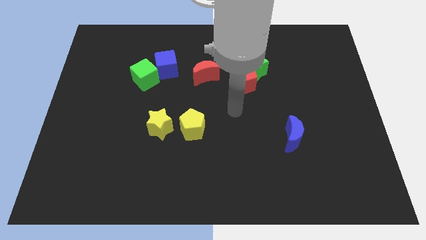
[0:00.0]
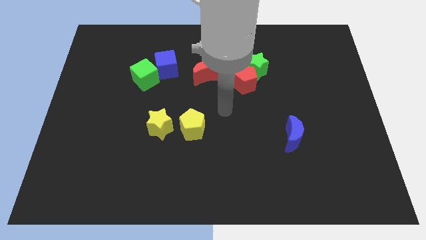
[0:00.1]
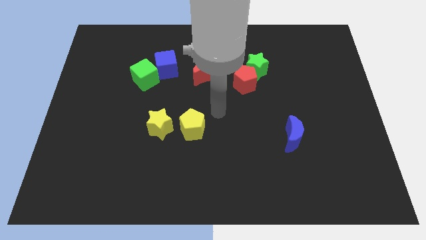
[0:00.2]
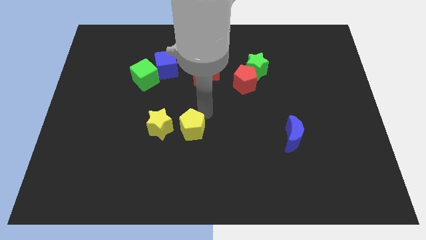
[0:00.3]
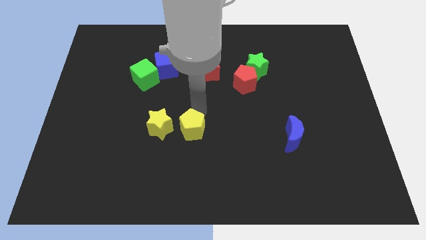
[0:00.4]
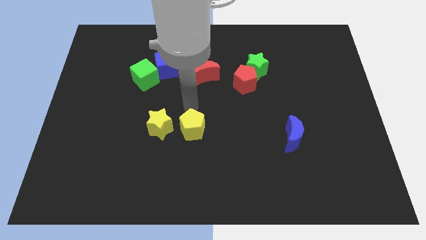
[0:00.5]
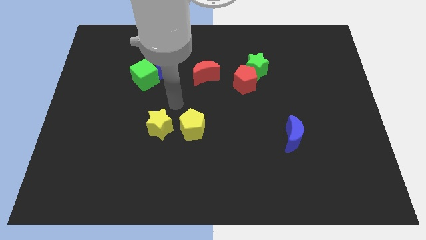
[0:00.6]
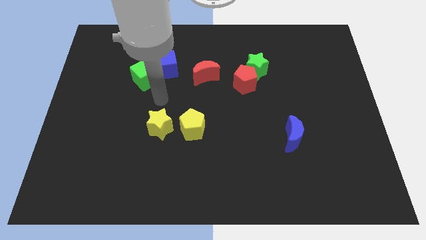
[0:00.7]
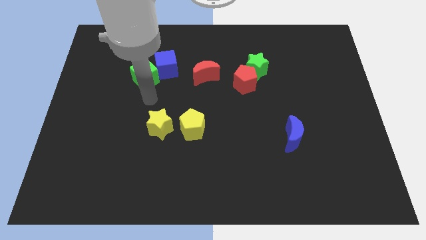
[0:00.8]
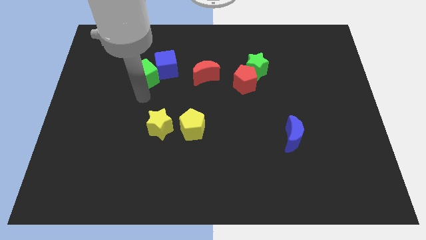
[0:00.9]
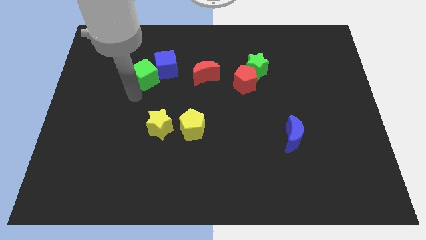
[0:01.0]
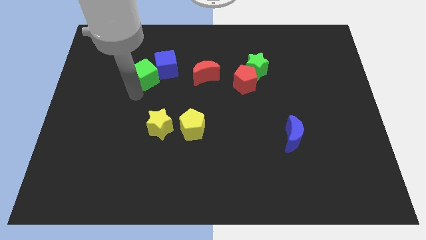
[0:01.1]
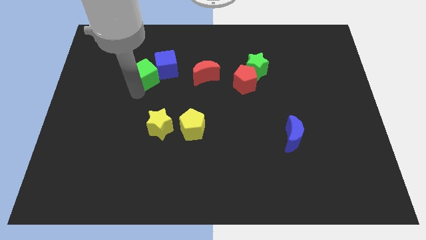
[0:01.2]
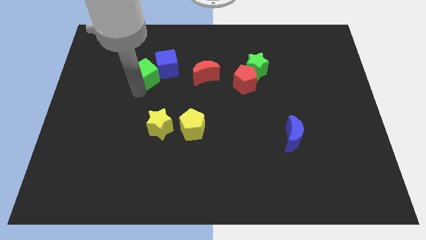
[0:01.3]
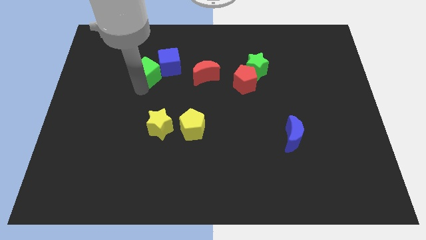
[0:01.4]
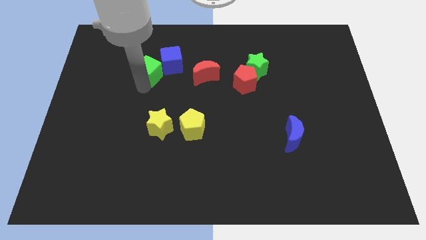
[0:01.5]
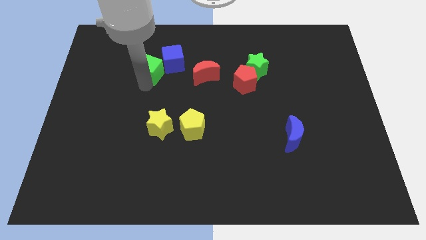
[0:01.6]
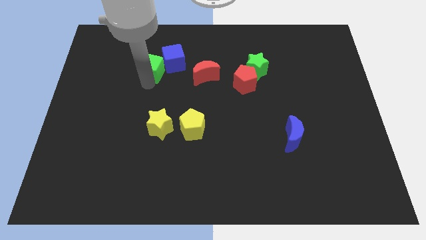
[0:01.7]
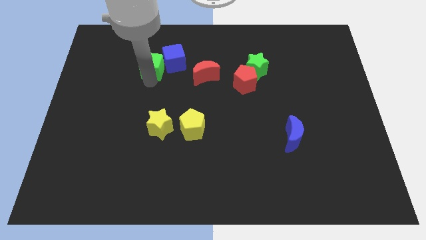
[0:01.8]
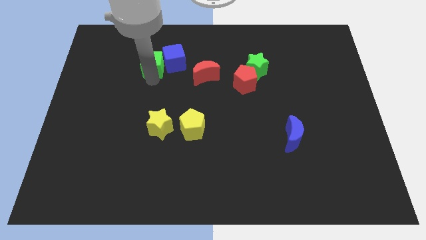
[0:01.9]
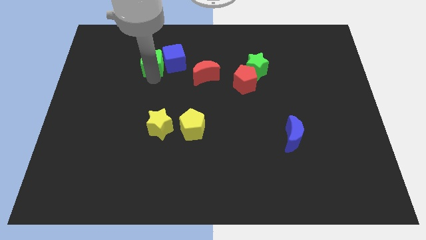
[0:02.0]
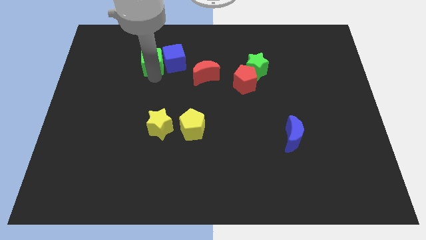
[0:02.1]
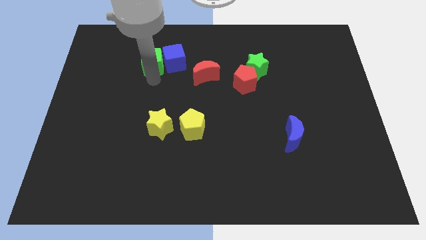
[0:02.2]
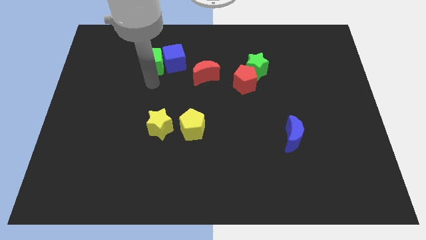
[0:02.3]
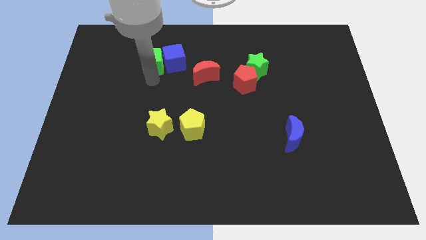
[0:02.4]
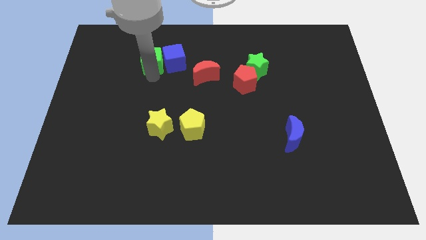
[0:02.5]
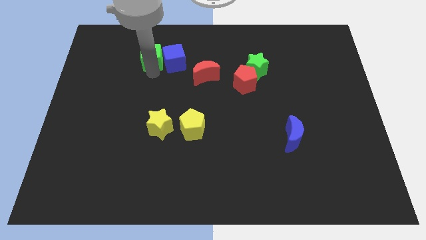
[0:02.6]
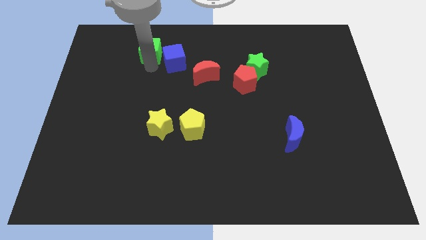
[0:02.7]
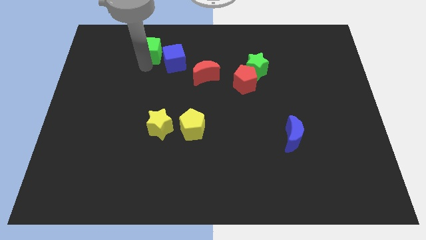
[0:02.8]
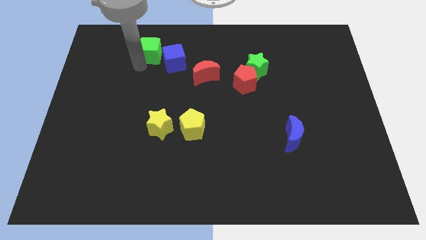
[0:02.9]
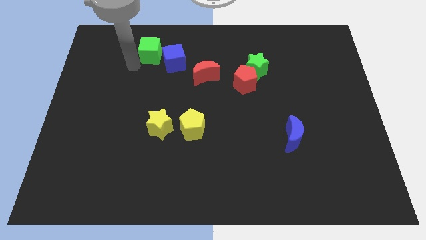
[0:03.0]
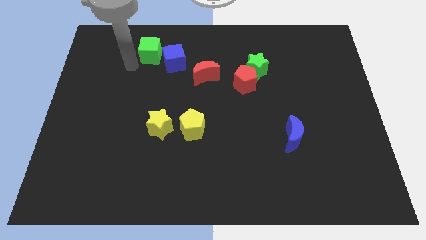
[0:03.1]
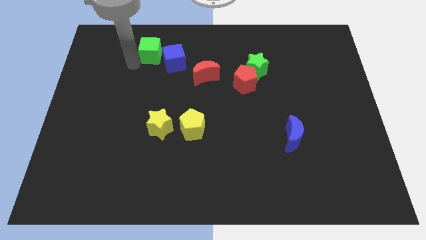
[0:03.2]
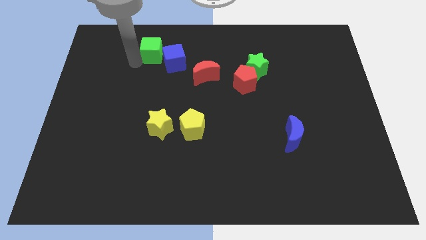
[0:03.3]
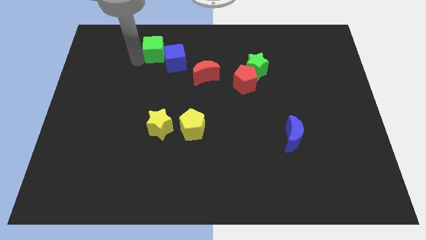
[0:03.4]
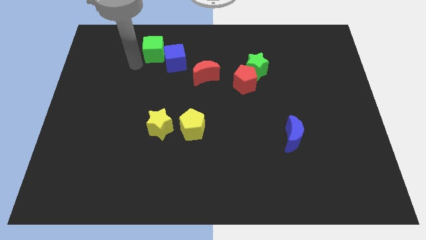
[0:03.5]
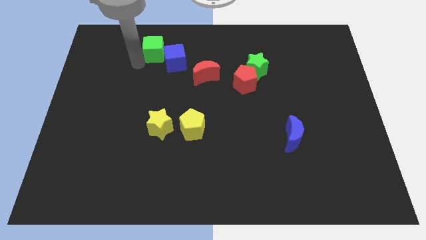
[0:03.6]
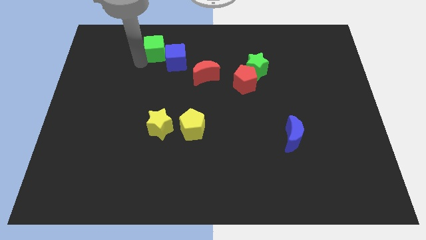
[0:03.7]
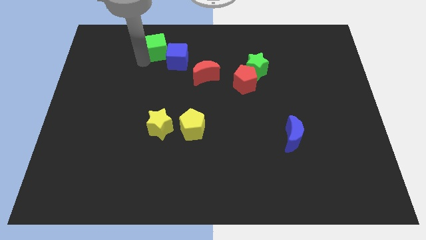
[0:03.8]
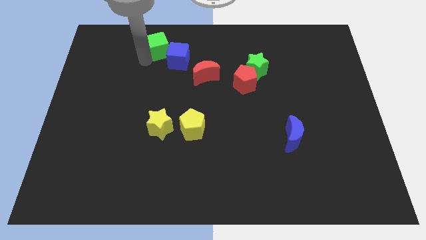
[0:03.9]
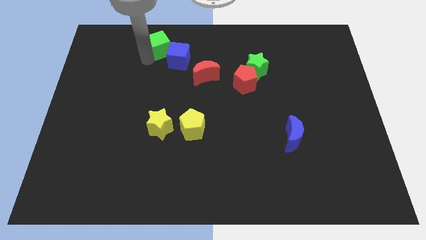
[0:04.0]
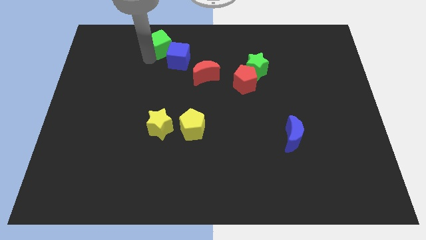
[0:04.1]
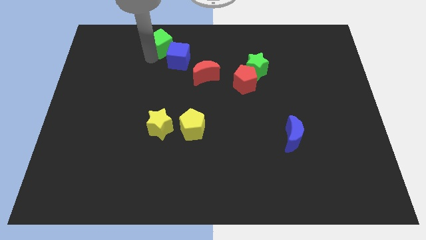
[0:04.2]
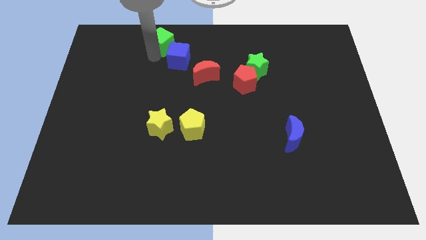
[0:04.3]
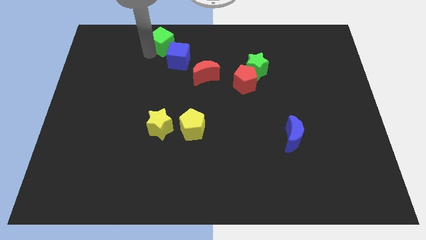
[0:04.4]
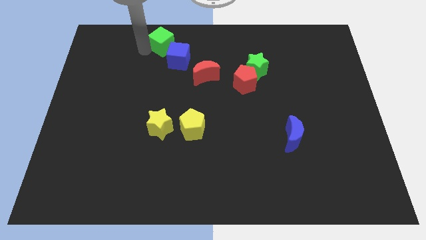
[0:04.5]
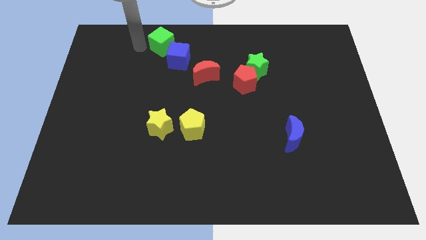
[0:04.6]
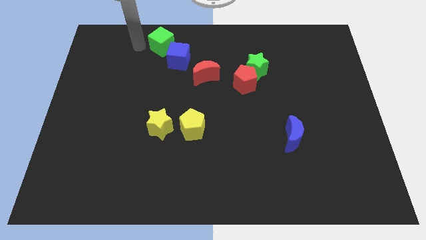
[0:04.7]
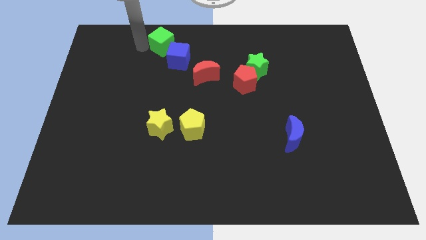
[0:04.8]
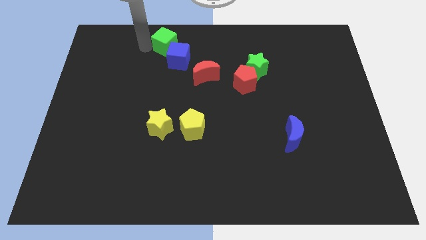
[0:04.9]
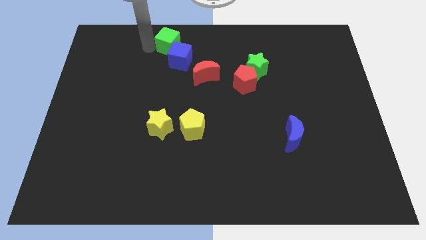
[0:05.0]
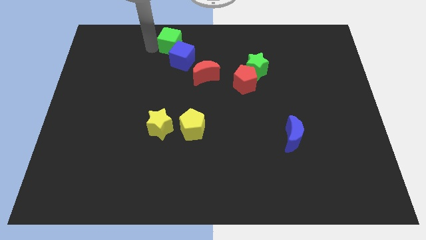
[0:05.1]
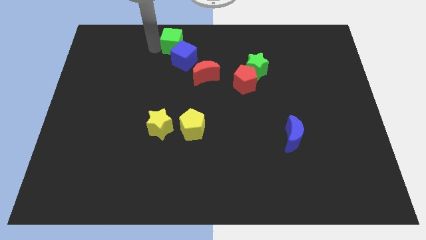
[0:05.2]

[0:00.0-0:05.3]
push the green cube to the towards your base

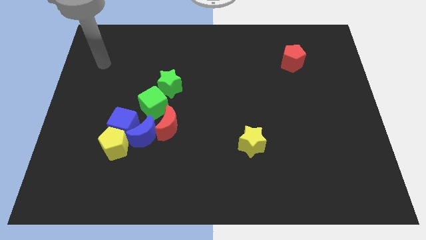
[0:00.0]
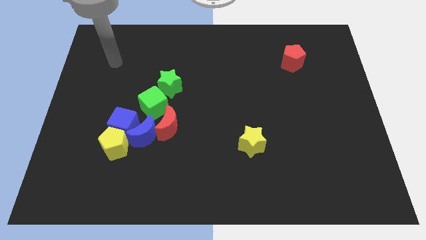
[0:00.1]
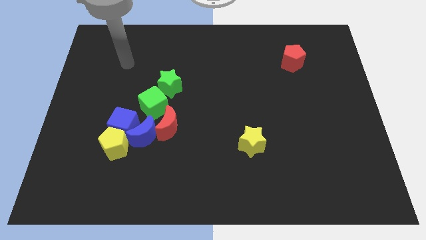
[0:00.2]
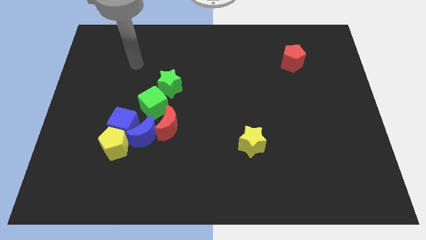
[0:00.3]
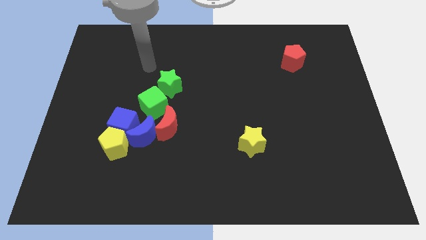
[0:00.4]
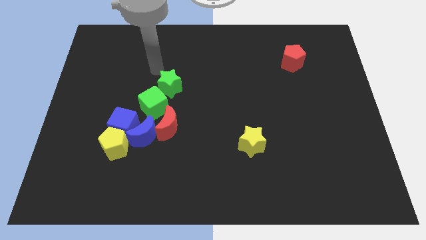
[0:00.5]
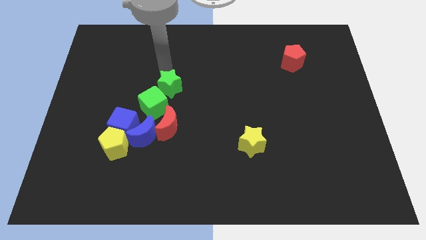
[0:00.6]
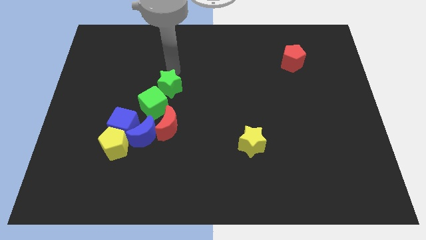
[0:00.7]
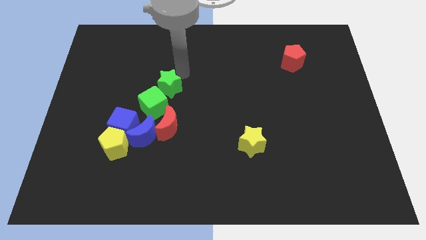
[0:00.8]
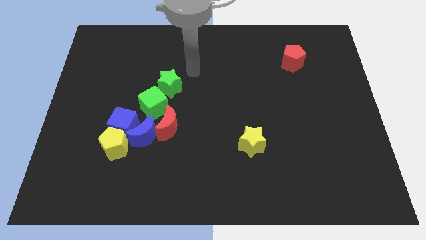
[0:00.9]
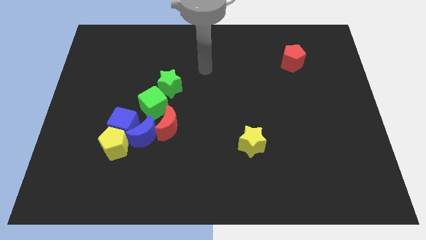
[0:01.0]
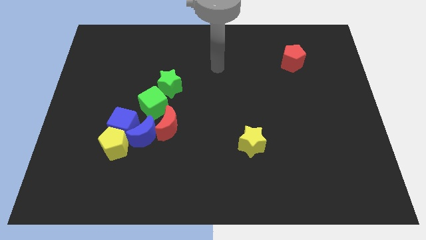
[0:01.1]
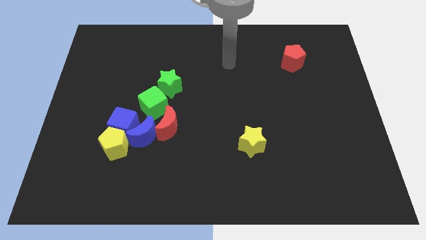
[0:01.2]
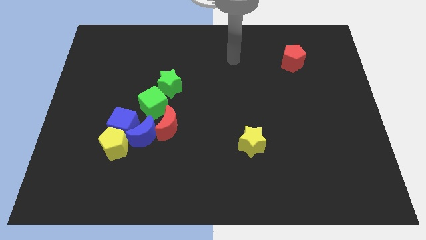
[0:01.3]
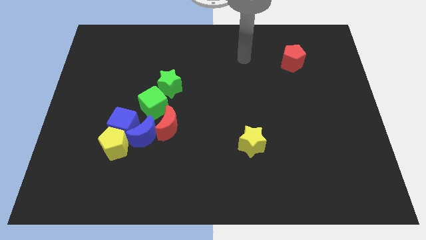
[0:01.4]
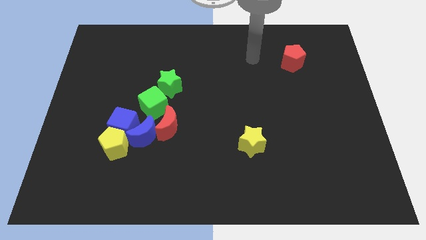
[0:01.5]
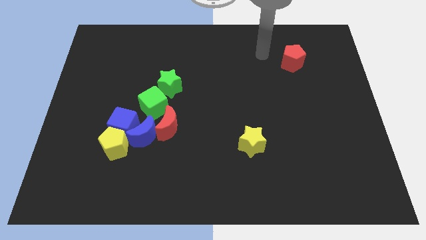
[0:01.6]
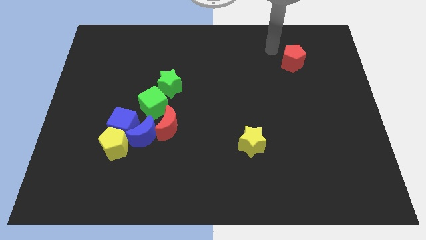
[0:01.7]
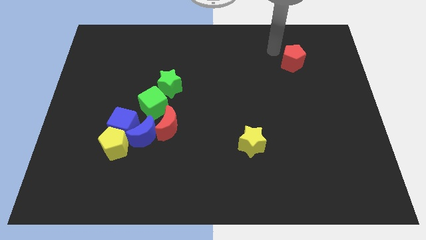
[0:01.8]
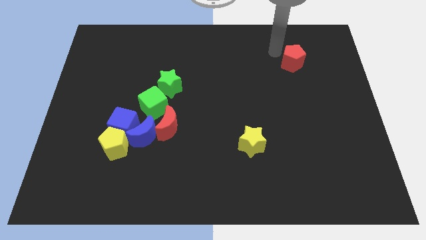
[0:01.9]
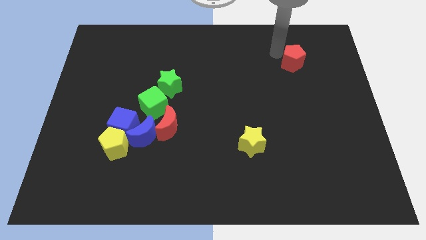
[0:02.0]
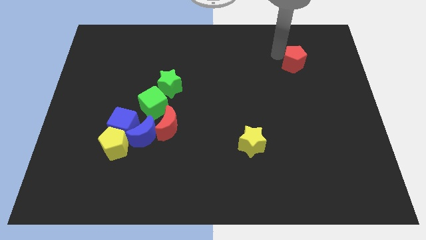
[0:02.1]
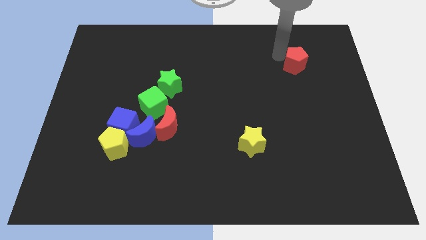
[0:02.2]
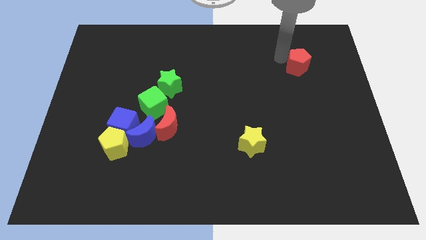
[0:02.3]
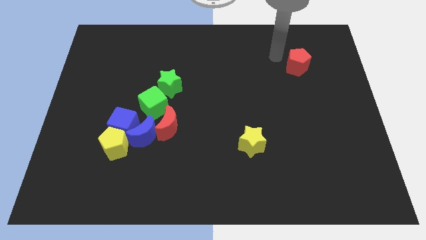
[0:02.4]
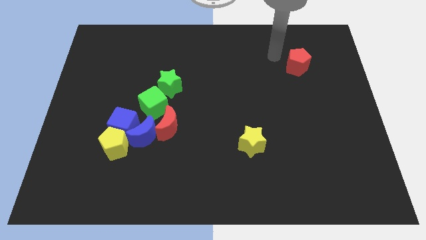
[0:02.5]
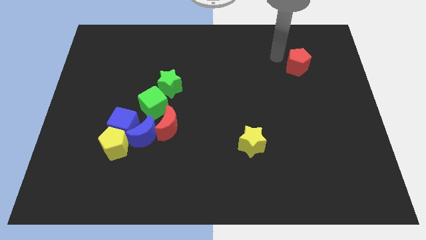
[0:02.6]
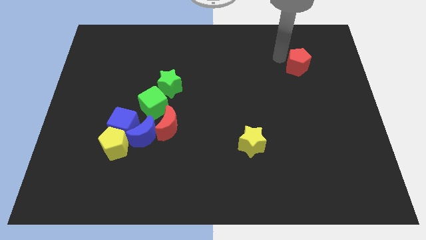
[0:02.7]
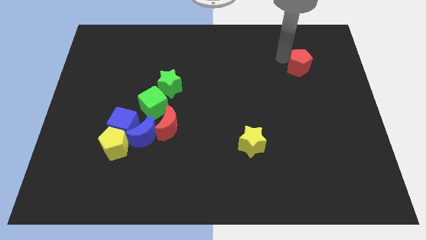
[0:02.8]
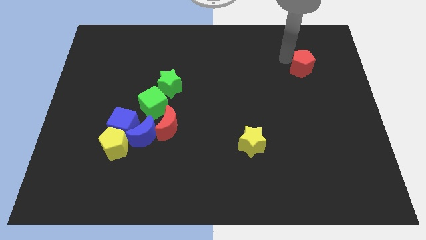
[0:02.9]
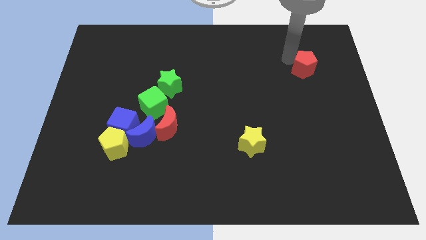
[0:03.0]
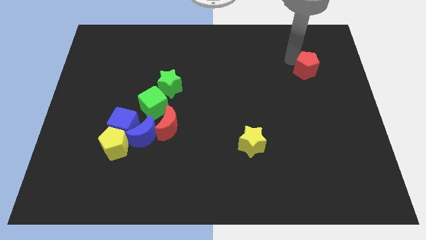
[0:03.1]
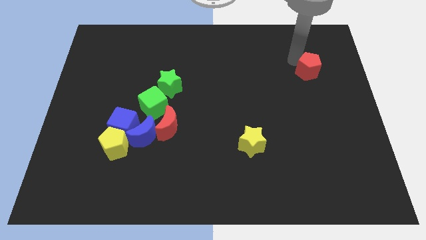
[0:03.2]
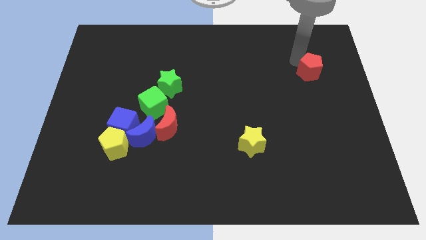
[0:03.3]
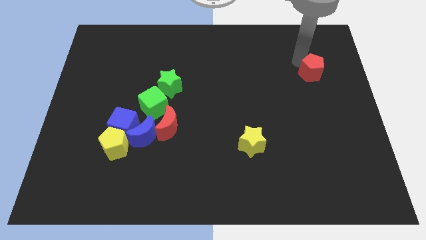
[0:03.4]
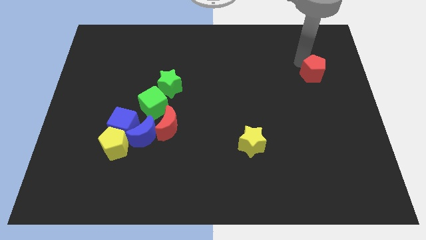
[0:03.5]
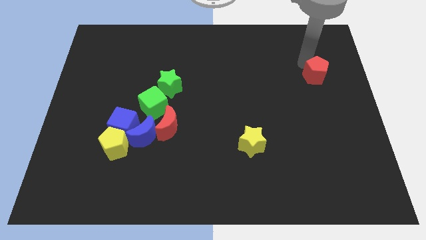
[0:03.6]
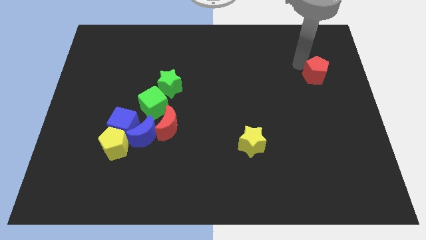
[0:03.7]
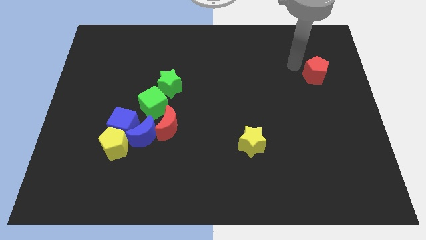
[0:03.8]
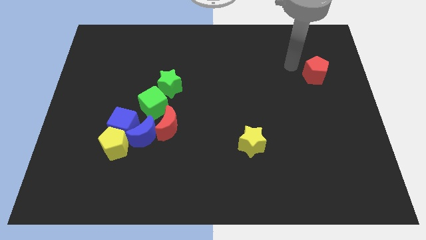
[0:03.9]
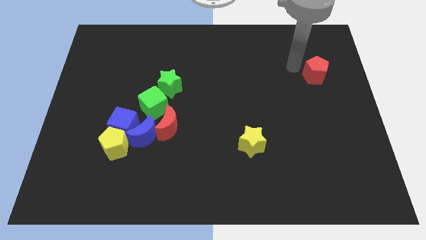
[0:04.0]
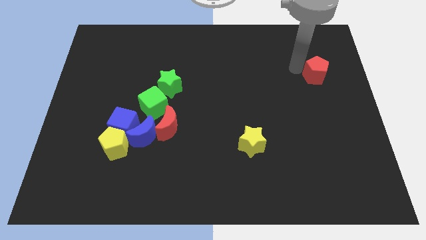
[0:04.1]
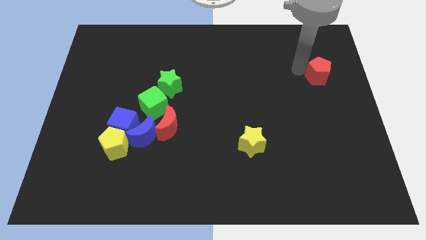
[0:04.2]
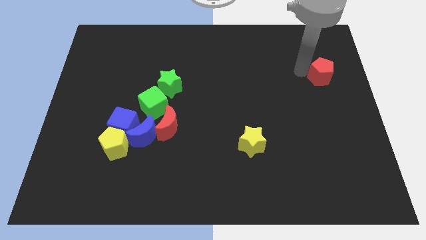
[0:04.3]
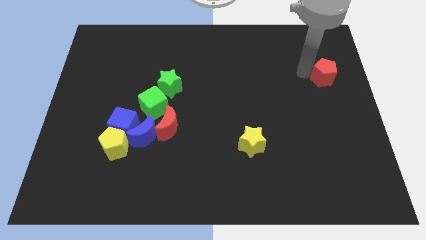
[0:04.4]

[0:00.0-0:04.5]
slide the red pentagon to the center right
